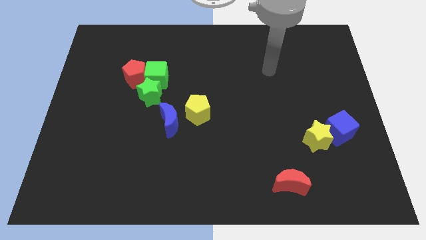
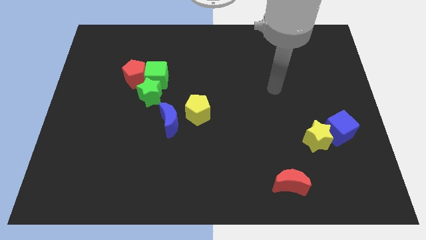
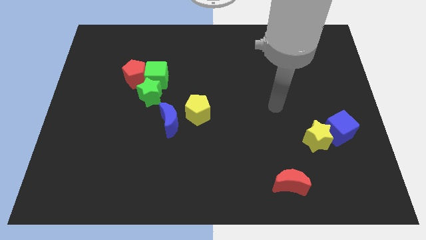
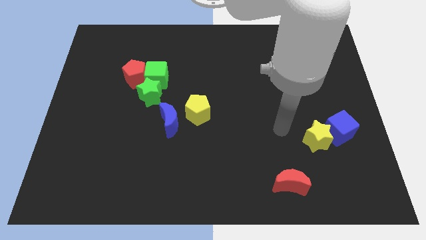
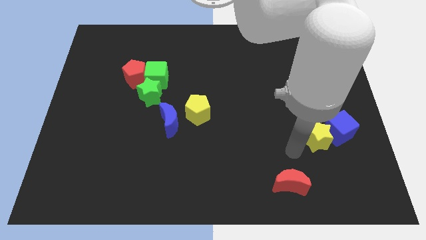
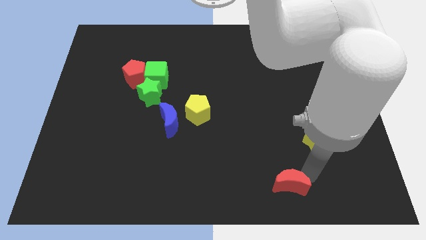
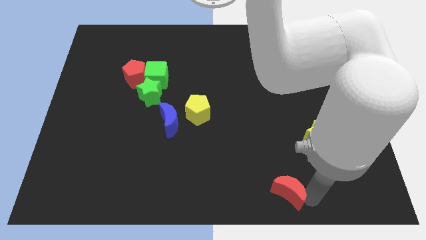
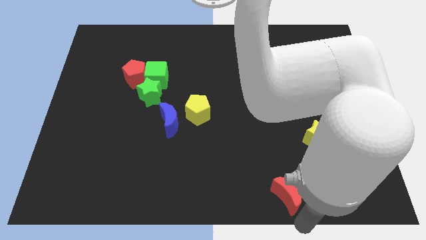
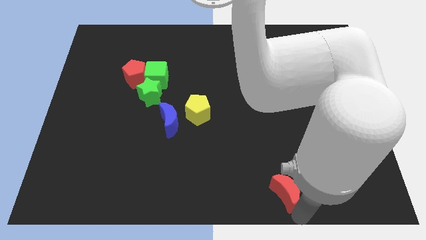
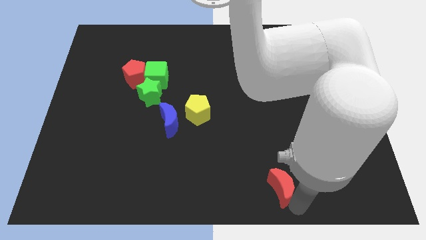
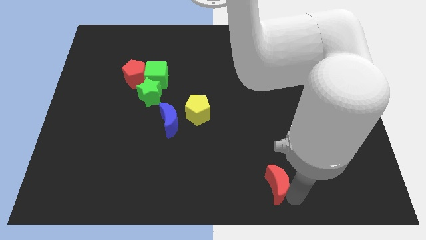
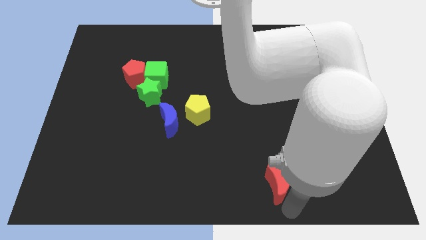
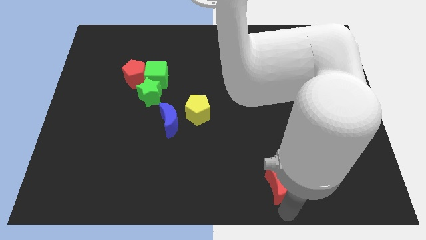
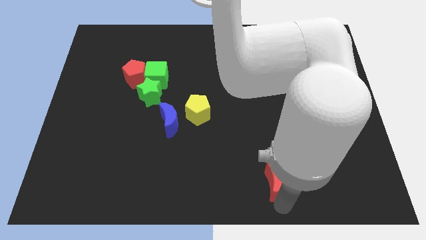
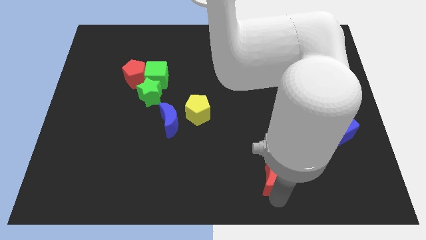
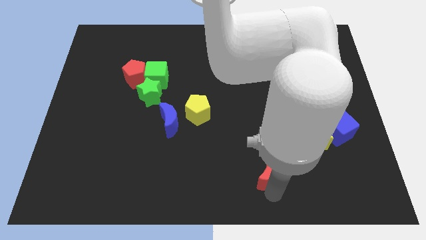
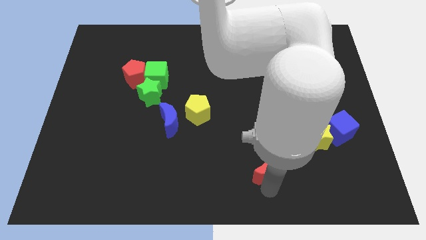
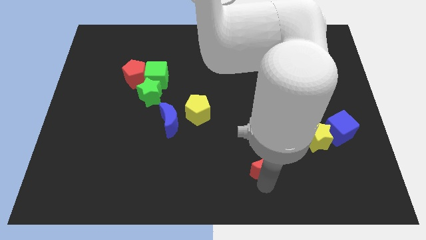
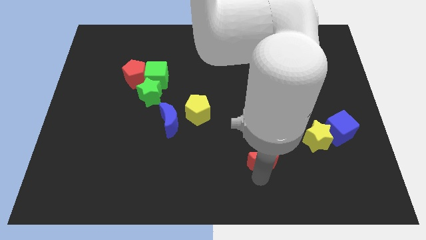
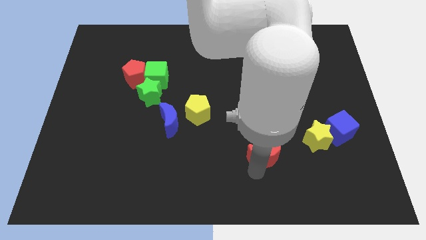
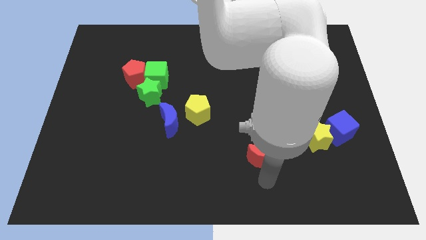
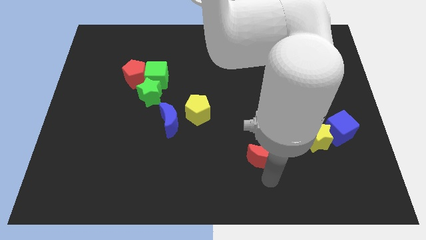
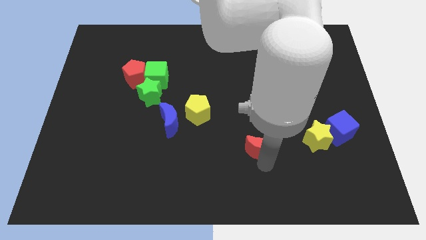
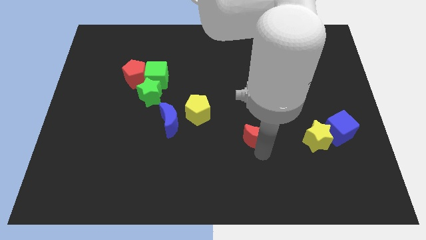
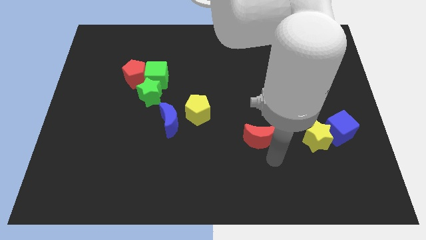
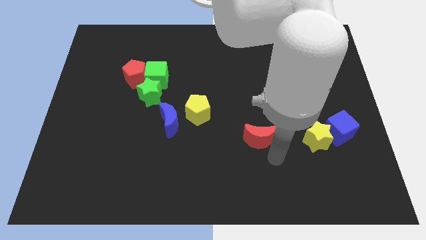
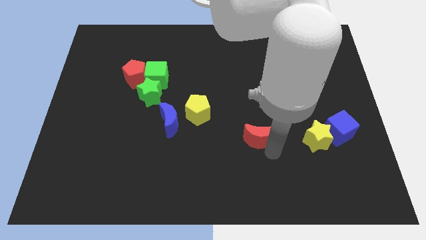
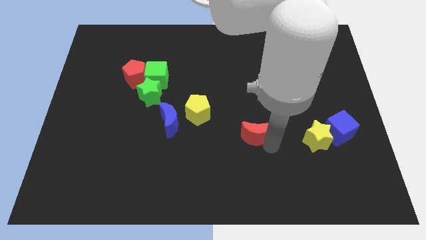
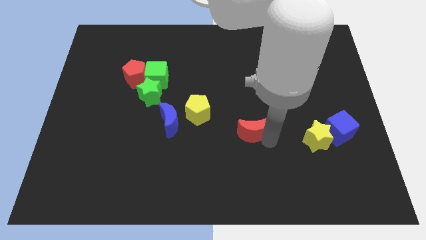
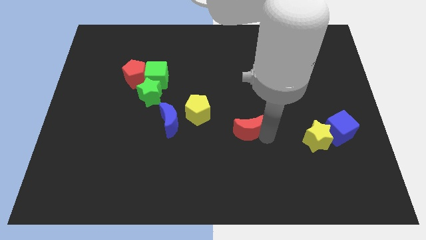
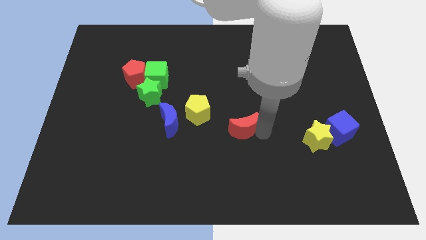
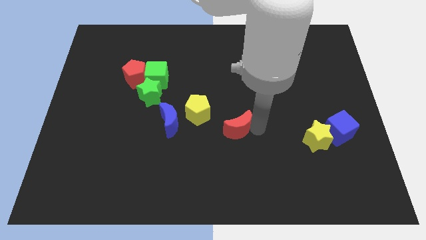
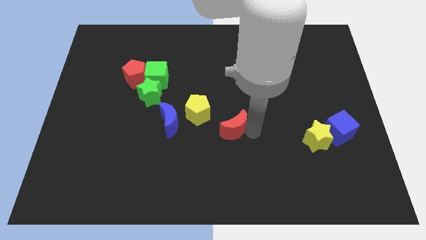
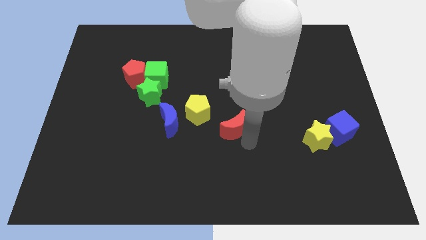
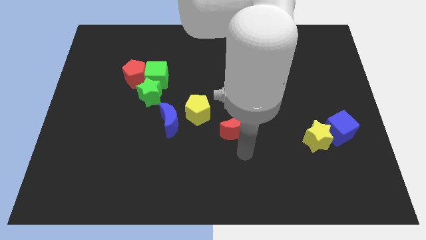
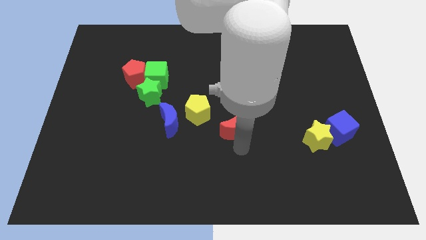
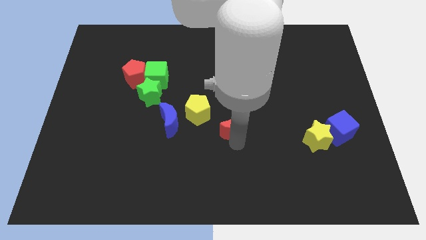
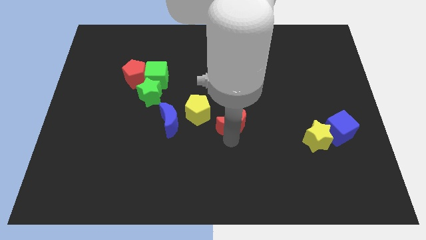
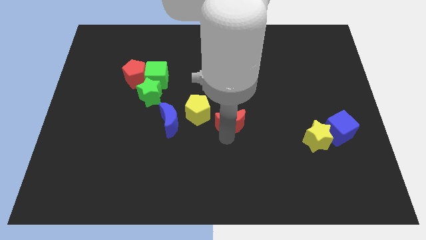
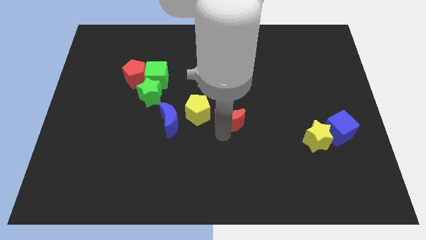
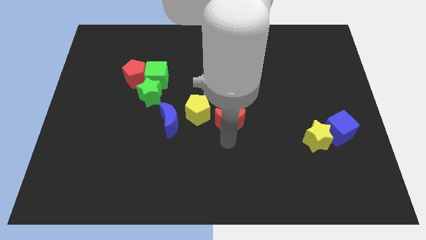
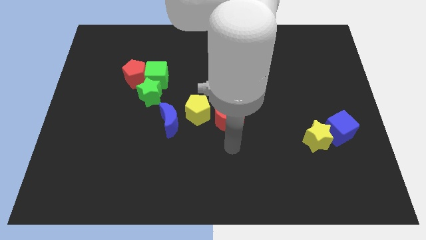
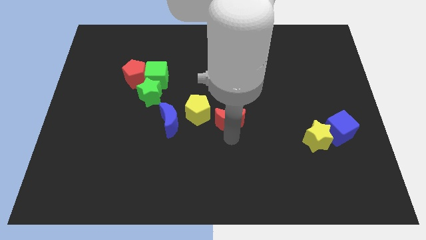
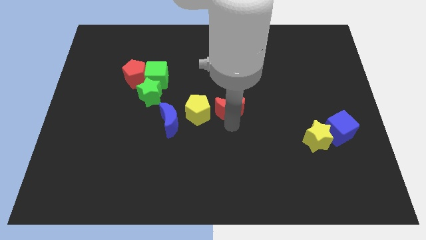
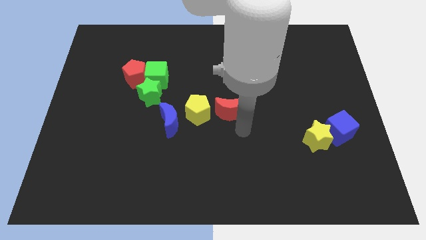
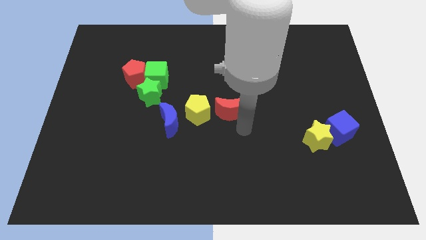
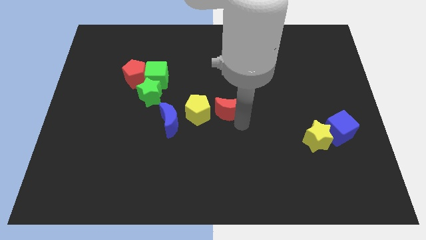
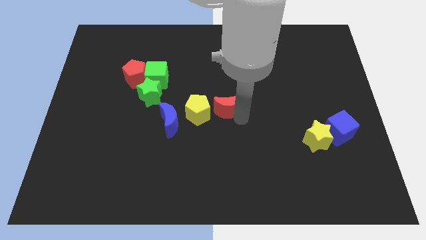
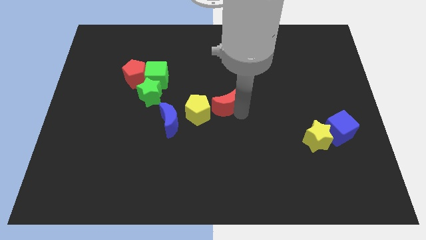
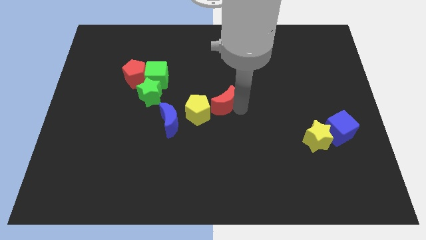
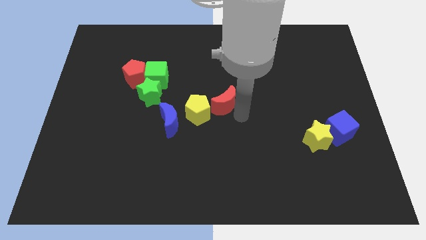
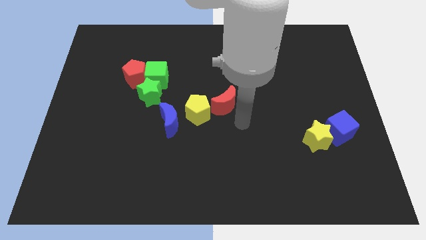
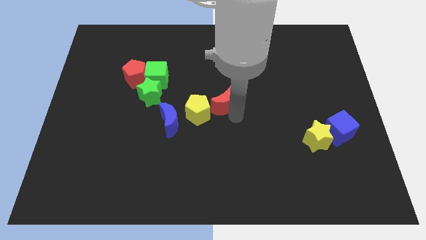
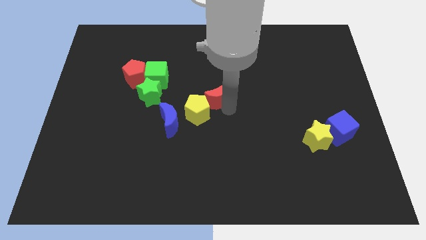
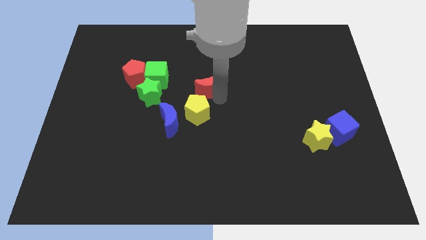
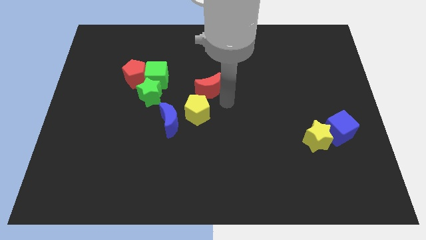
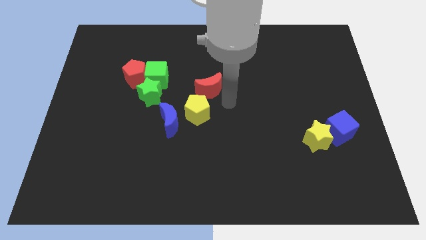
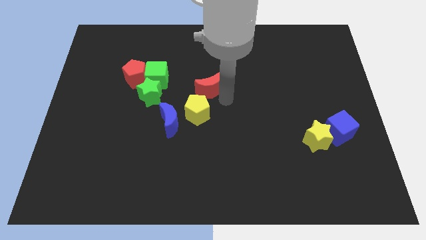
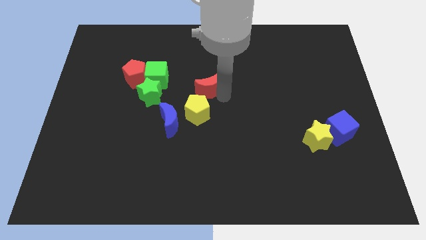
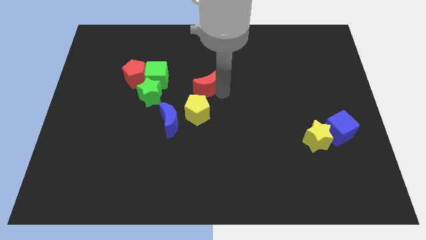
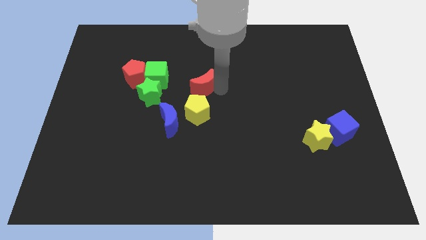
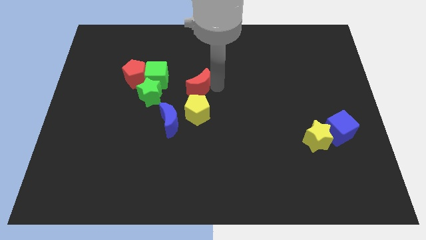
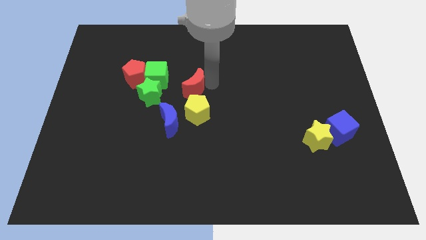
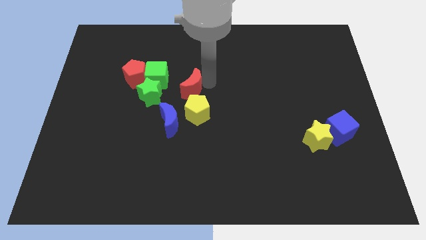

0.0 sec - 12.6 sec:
move the red moon to the right of the red pentagon

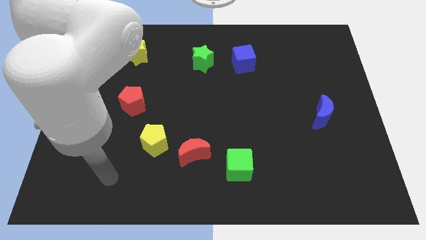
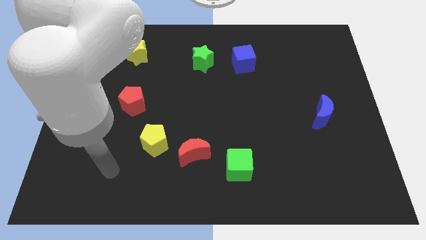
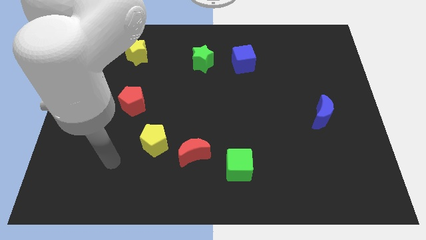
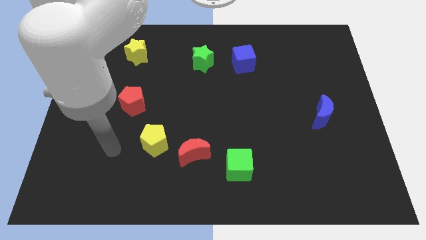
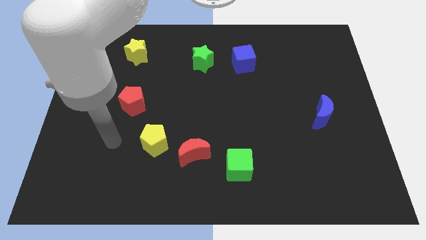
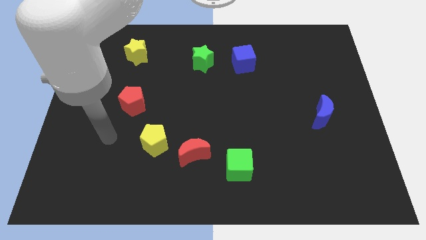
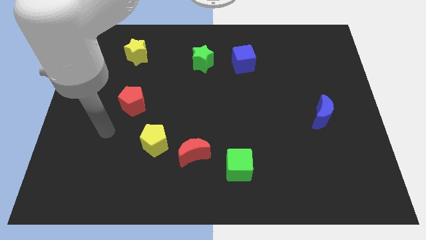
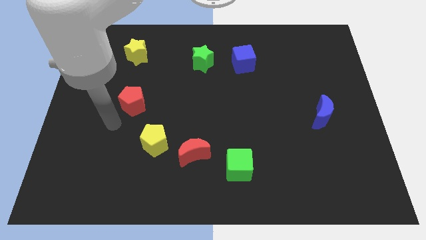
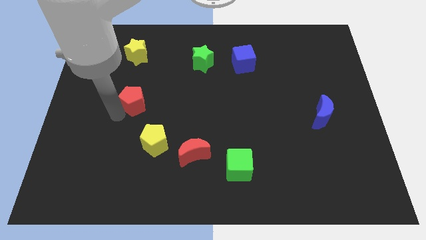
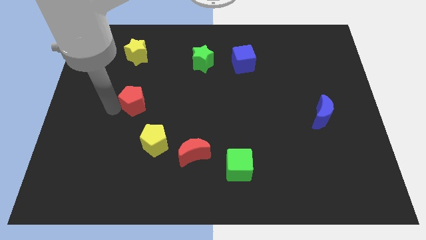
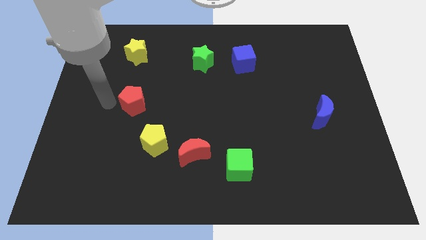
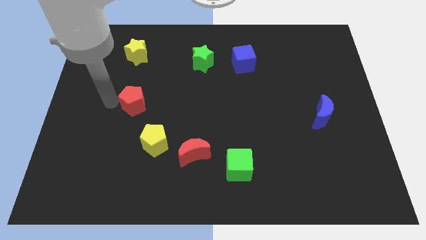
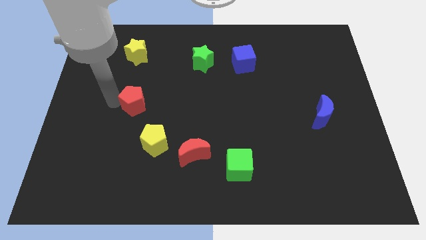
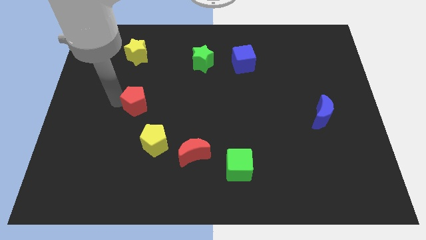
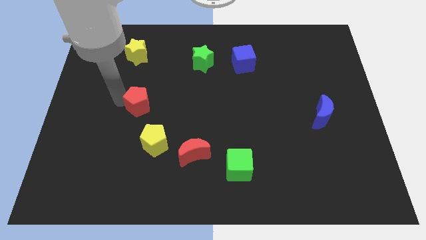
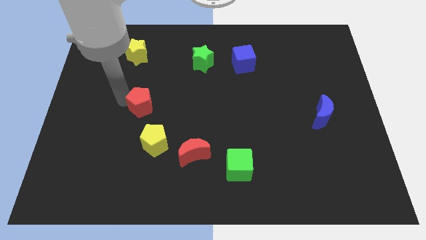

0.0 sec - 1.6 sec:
put the red pentagon to the top side of the yellow pentagon

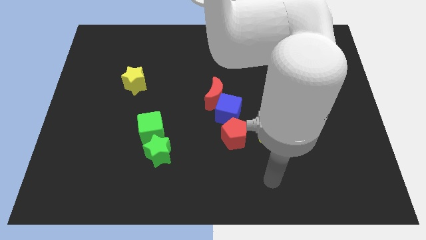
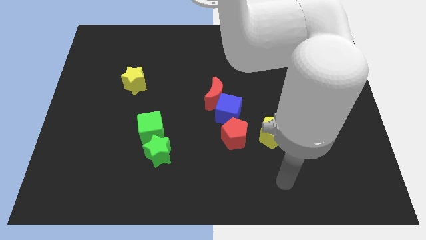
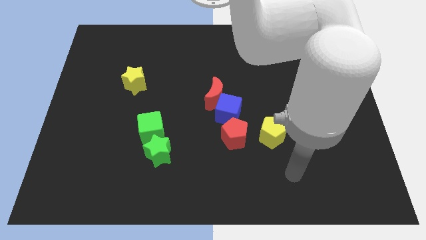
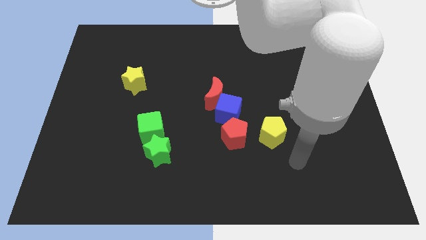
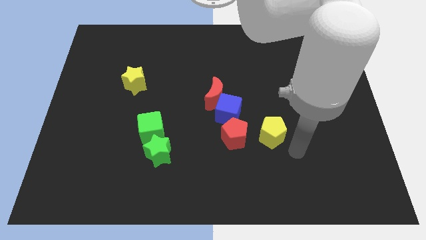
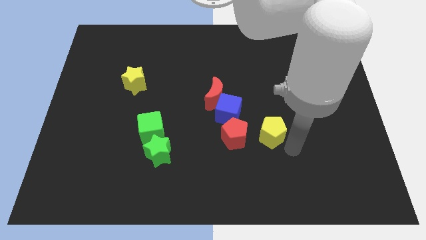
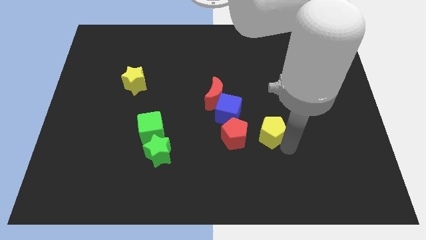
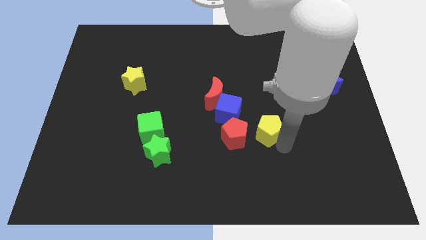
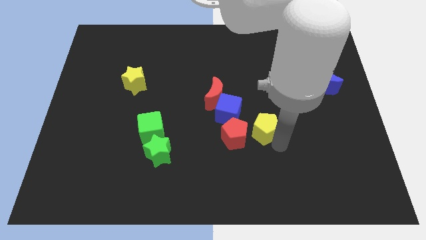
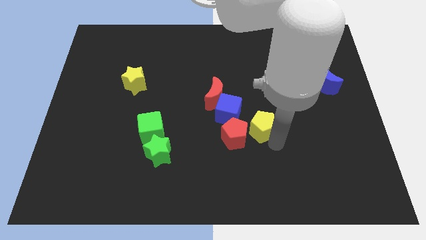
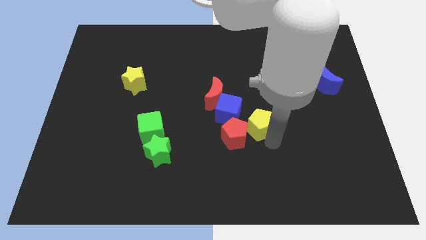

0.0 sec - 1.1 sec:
move the yellow pentagon to the bottom right side of the red moon
